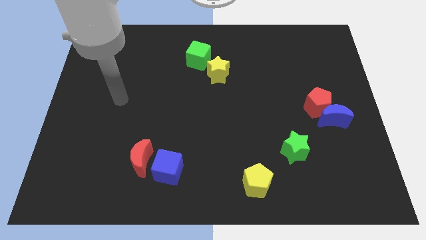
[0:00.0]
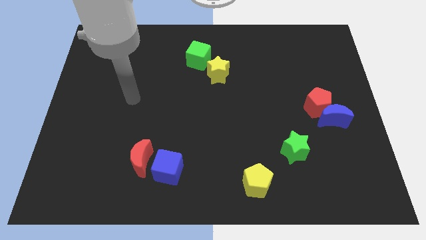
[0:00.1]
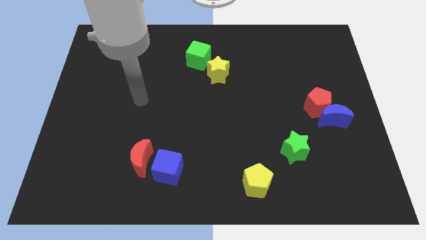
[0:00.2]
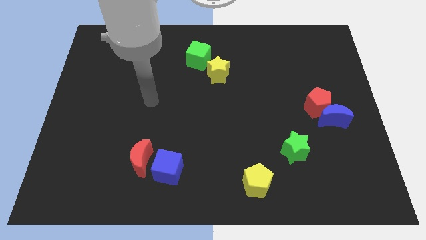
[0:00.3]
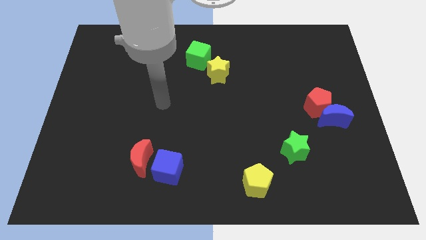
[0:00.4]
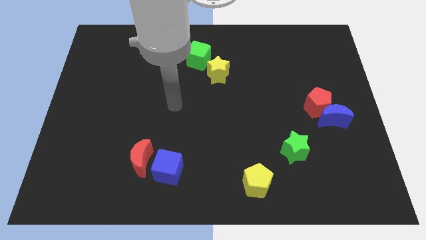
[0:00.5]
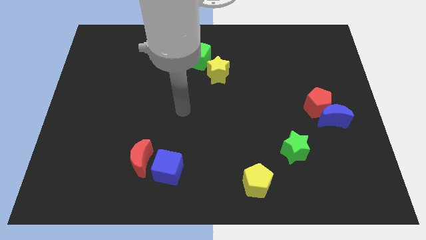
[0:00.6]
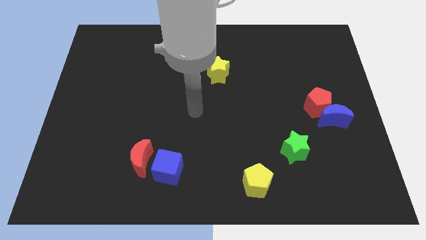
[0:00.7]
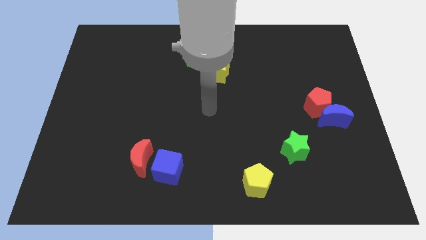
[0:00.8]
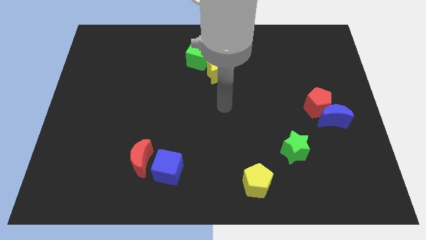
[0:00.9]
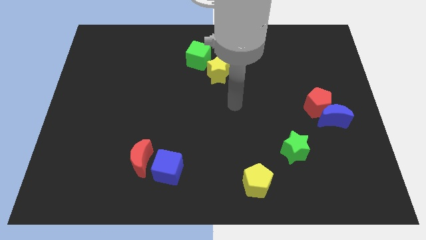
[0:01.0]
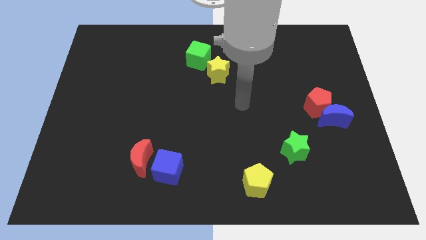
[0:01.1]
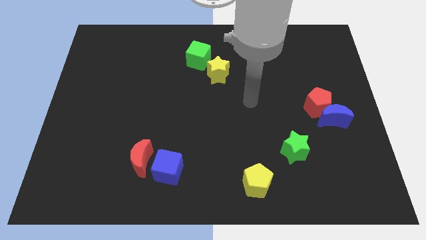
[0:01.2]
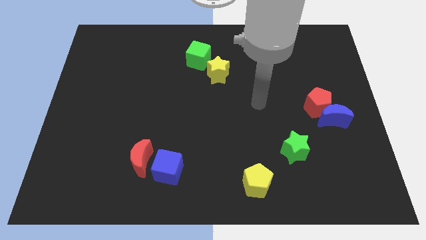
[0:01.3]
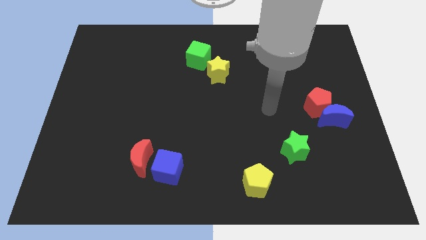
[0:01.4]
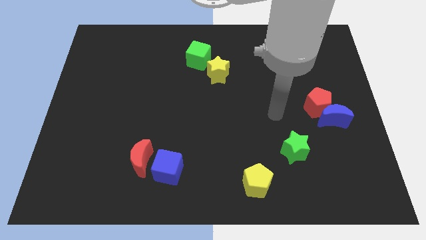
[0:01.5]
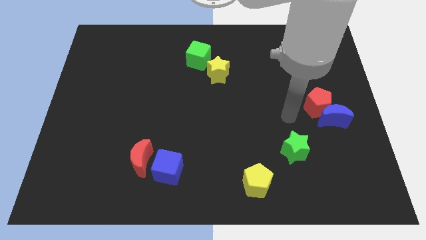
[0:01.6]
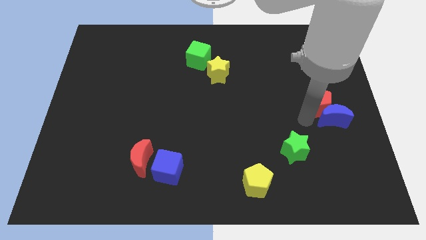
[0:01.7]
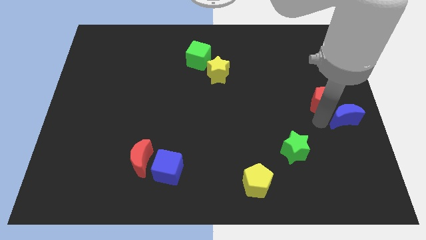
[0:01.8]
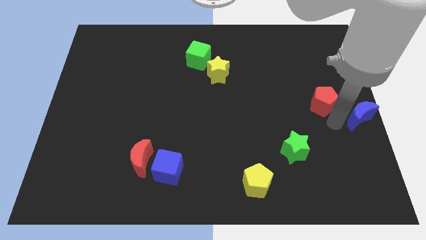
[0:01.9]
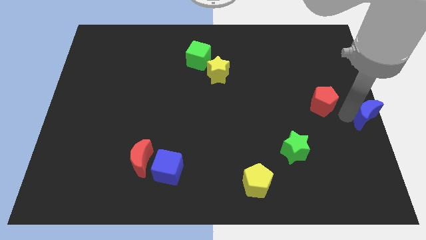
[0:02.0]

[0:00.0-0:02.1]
separate the red pentagon from the blue moon

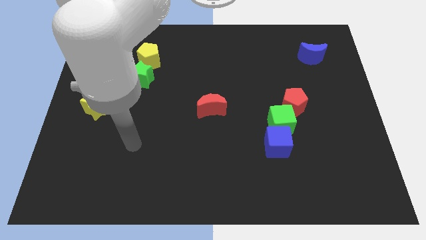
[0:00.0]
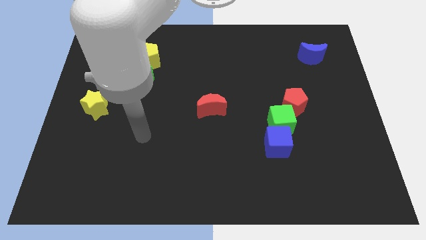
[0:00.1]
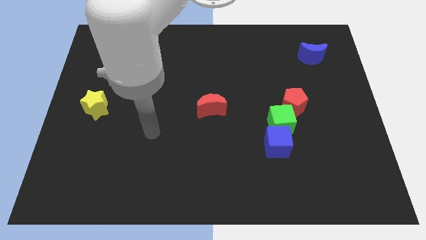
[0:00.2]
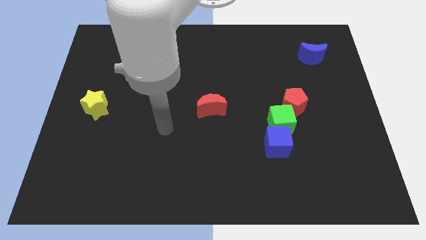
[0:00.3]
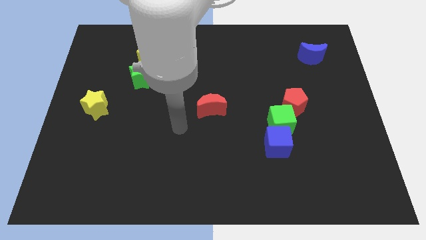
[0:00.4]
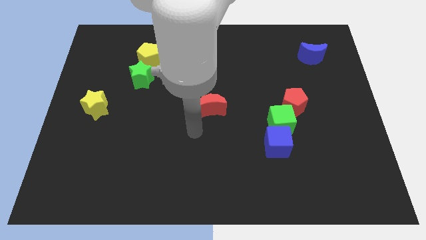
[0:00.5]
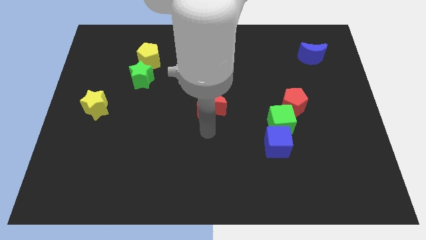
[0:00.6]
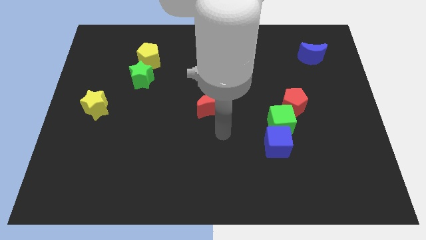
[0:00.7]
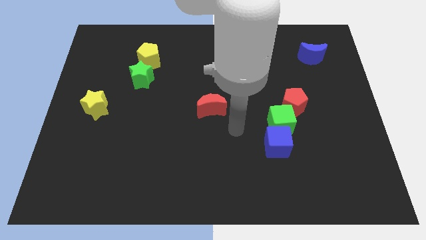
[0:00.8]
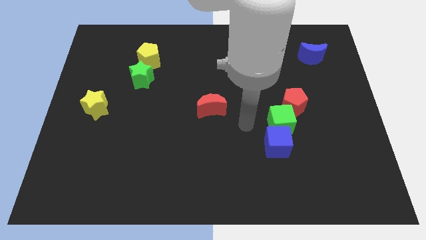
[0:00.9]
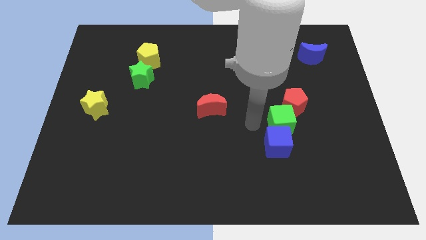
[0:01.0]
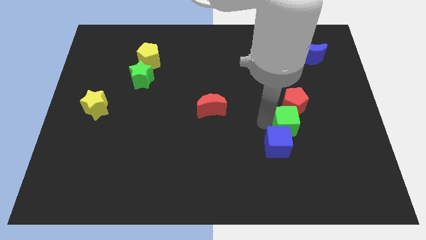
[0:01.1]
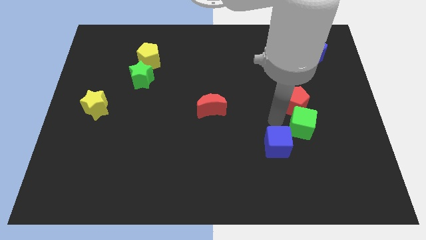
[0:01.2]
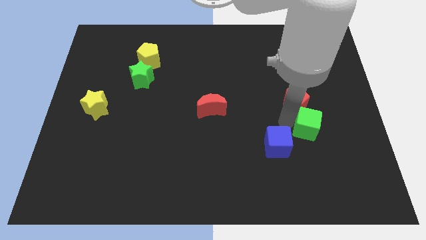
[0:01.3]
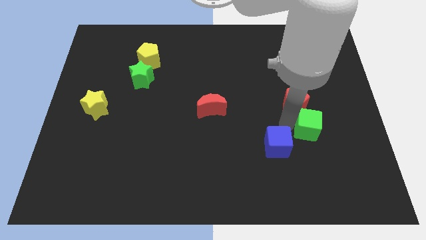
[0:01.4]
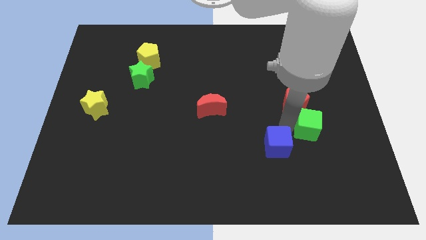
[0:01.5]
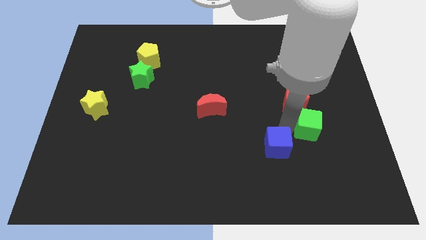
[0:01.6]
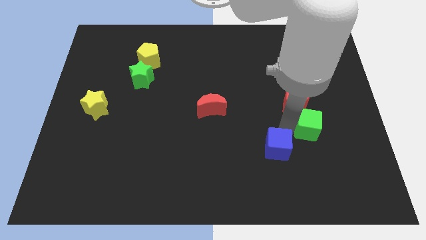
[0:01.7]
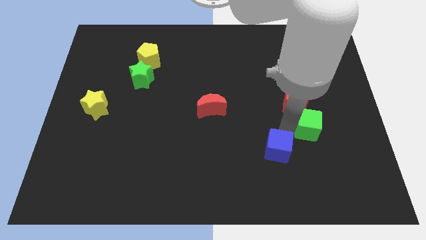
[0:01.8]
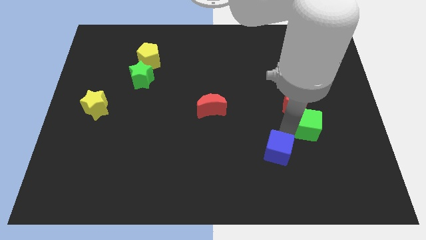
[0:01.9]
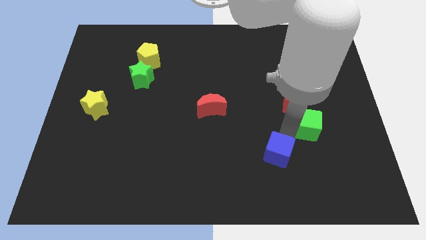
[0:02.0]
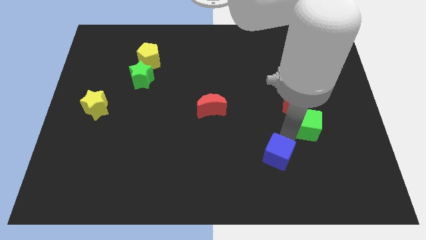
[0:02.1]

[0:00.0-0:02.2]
pull the blue cube apart from the green cube

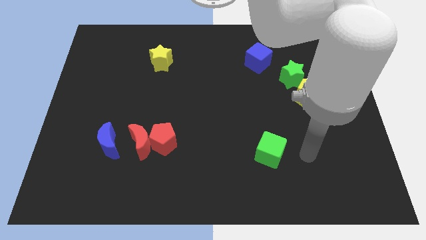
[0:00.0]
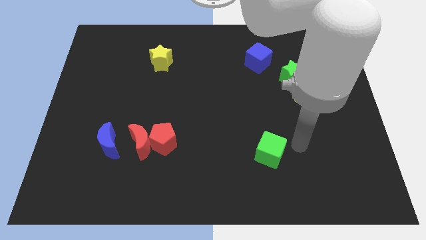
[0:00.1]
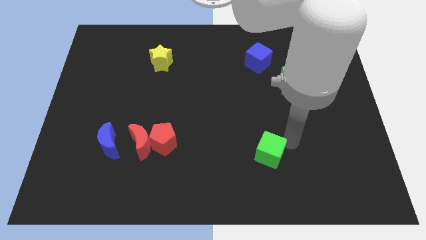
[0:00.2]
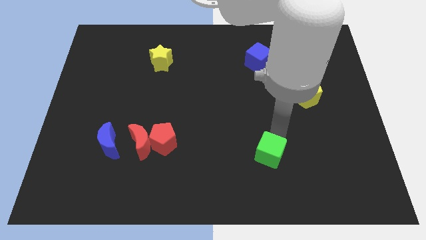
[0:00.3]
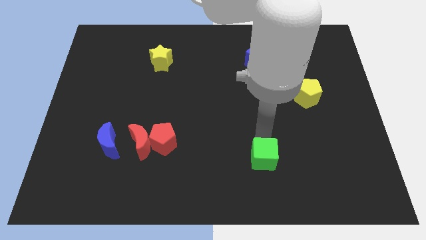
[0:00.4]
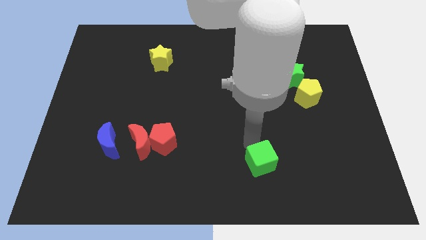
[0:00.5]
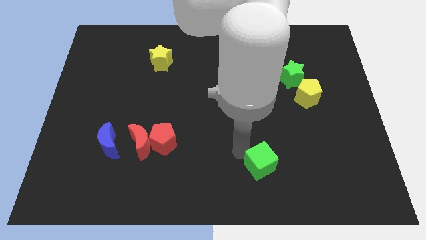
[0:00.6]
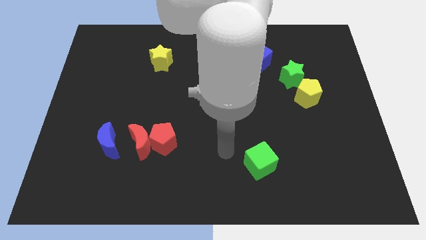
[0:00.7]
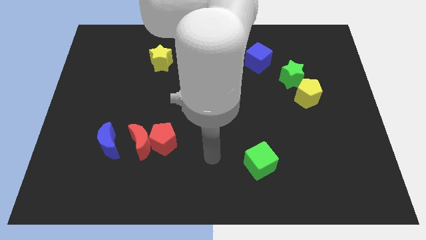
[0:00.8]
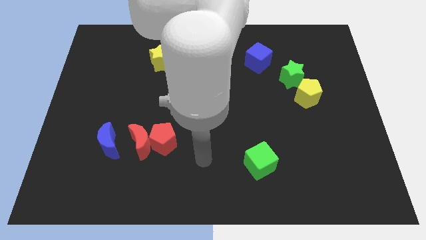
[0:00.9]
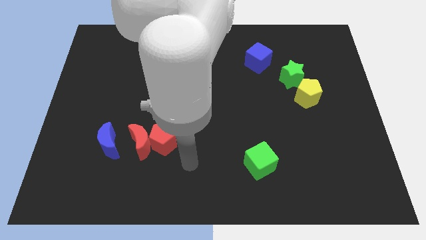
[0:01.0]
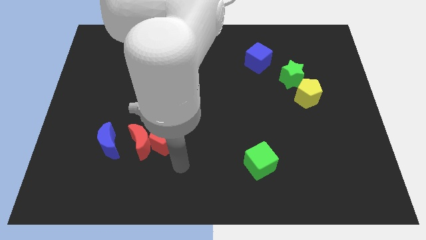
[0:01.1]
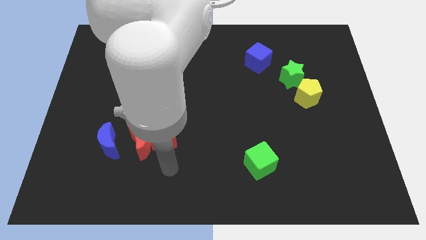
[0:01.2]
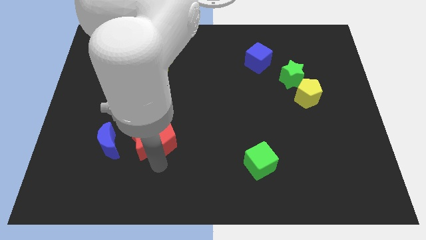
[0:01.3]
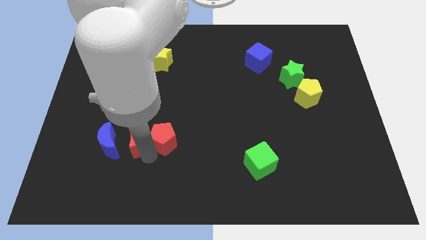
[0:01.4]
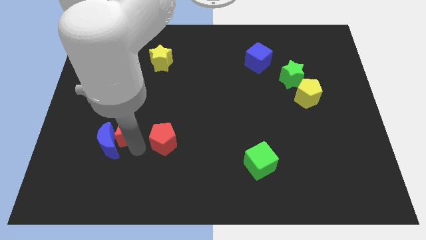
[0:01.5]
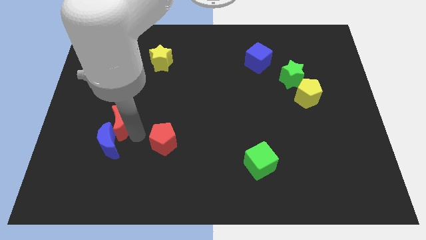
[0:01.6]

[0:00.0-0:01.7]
pull the red pentagon apart from the red moon

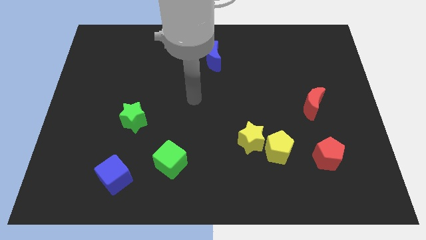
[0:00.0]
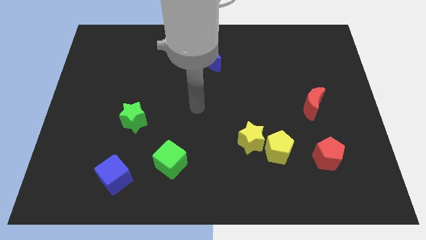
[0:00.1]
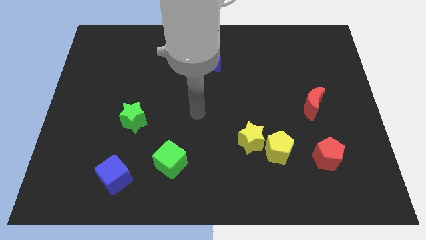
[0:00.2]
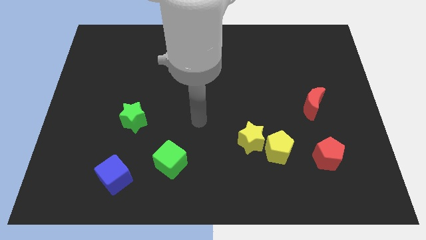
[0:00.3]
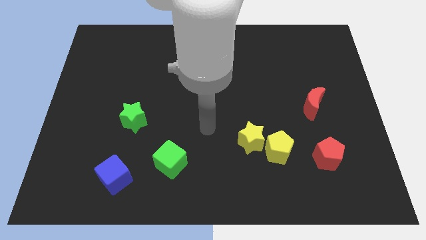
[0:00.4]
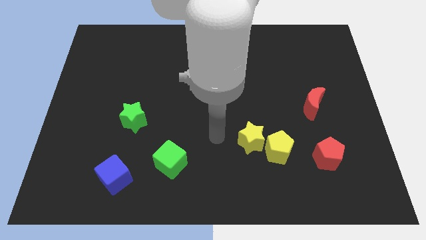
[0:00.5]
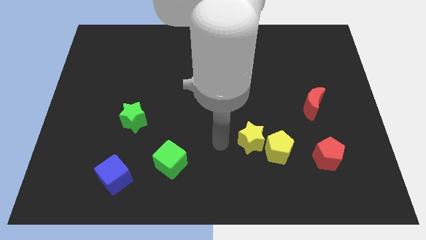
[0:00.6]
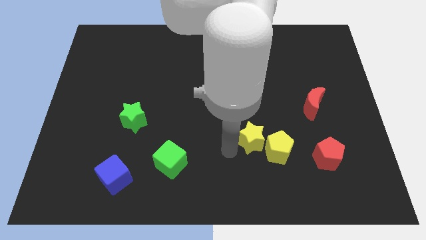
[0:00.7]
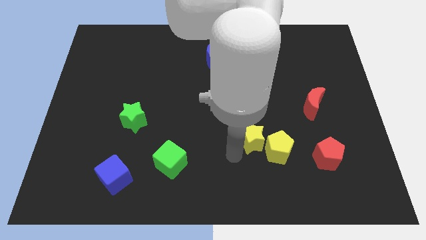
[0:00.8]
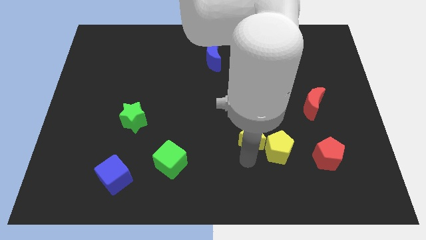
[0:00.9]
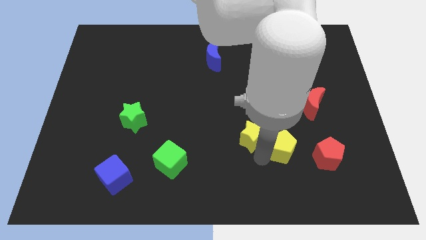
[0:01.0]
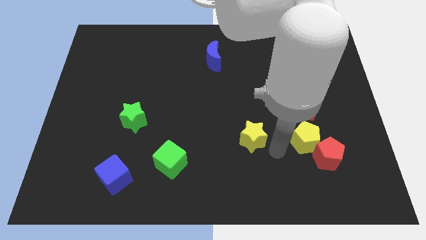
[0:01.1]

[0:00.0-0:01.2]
move the yellow star away from the yellow pentagon

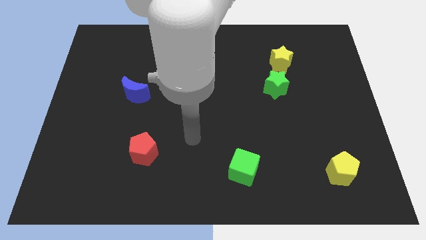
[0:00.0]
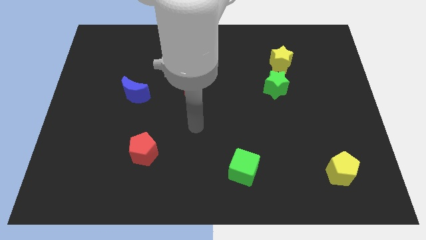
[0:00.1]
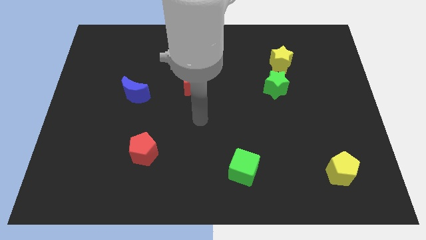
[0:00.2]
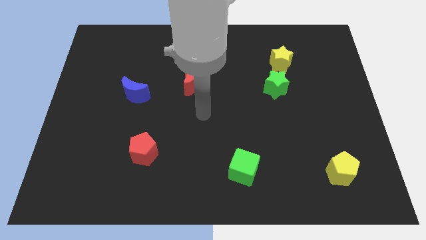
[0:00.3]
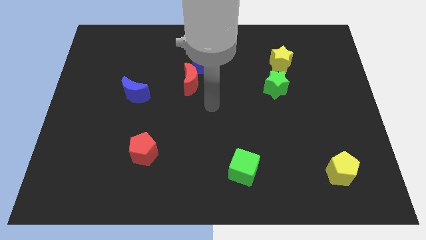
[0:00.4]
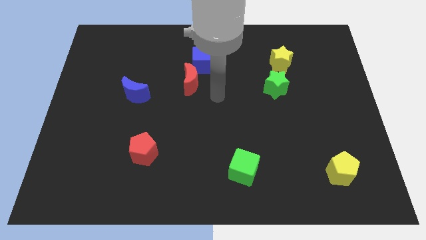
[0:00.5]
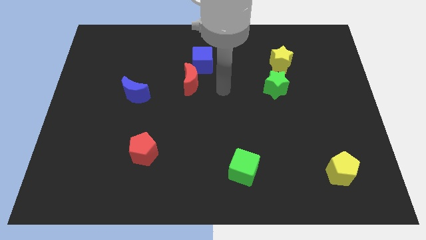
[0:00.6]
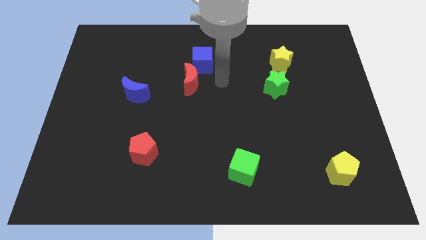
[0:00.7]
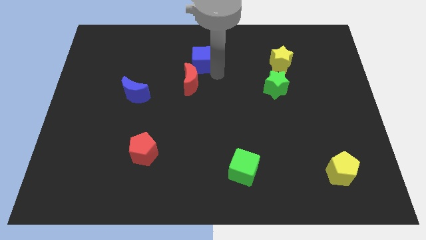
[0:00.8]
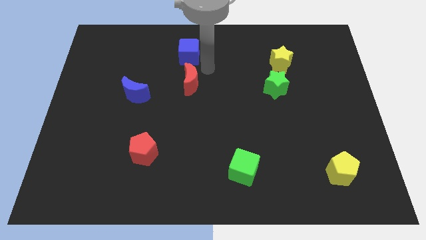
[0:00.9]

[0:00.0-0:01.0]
move the red moon away from the blue cube

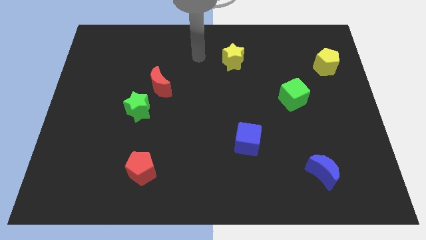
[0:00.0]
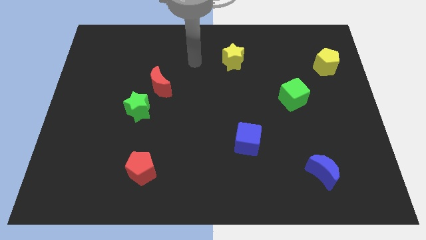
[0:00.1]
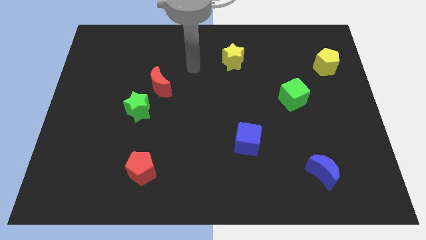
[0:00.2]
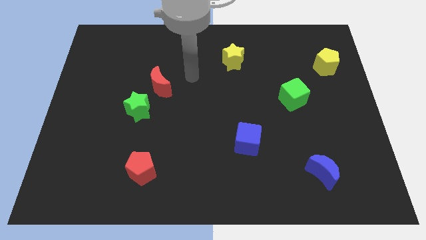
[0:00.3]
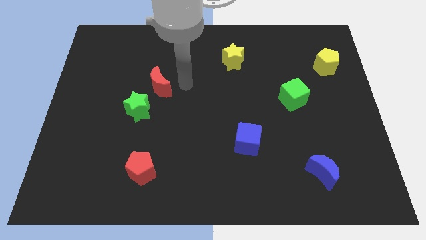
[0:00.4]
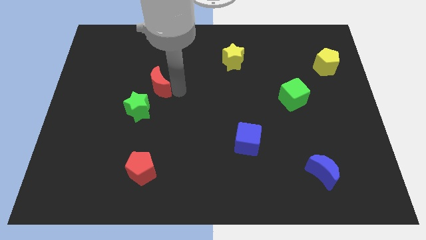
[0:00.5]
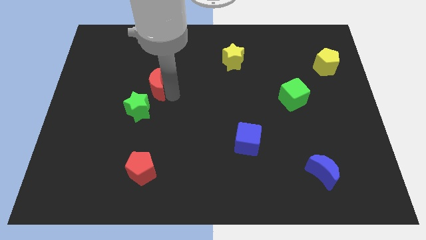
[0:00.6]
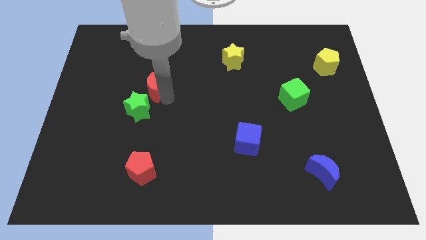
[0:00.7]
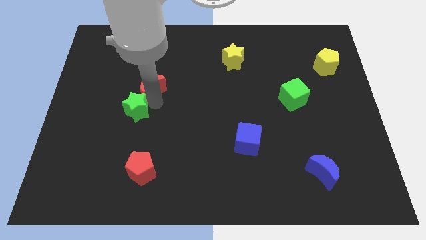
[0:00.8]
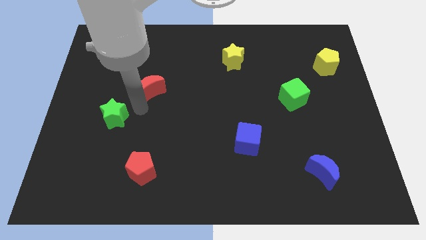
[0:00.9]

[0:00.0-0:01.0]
pull the red moon apart from the green star

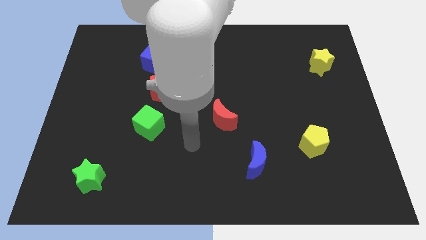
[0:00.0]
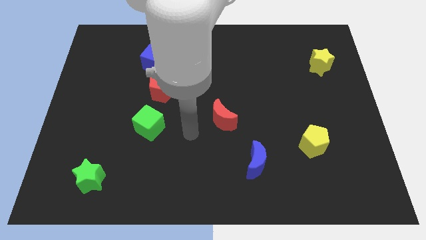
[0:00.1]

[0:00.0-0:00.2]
move the red pentagon away from the blue cube

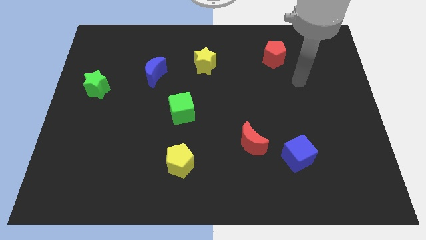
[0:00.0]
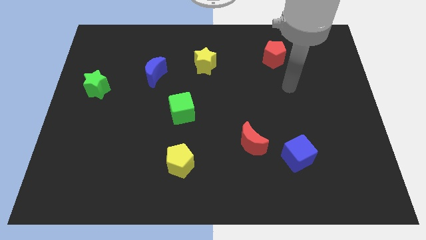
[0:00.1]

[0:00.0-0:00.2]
pull the red moon apart from the blue cube
